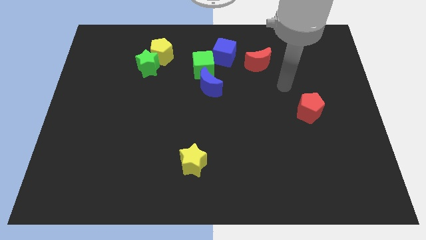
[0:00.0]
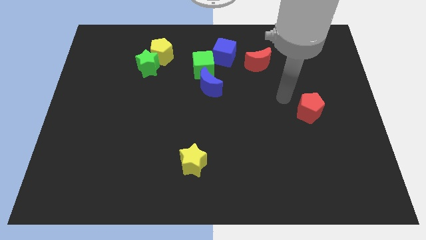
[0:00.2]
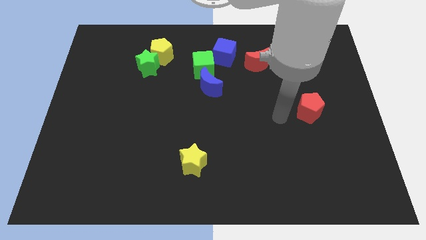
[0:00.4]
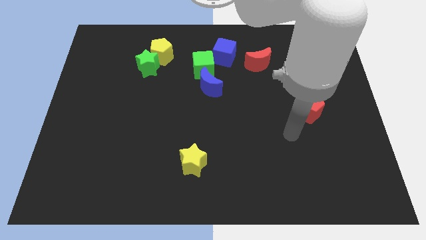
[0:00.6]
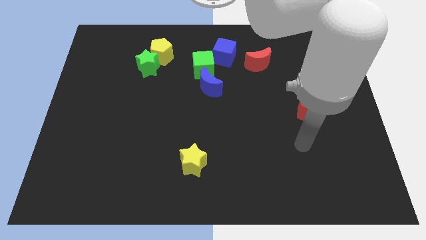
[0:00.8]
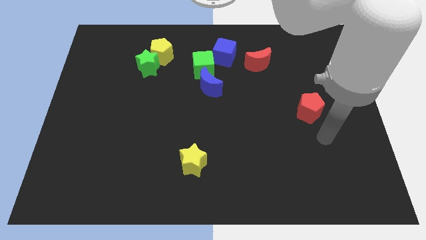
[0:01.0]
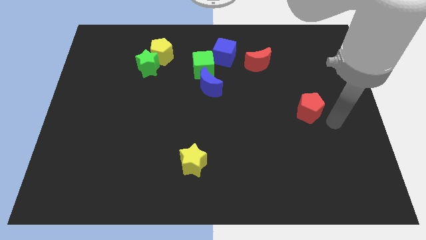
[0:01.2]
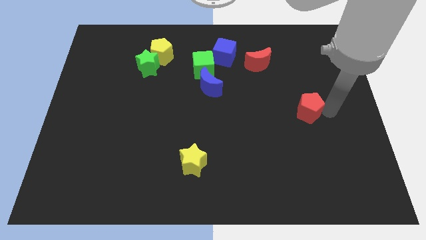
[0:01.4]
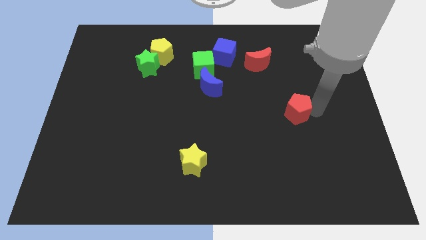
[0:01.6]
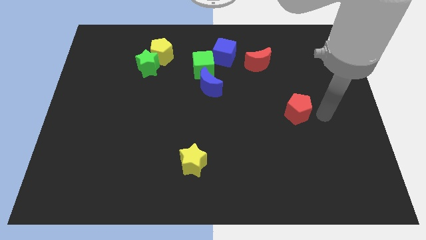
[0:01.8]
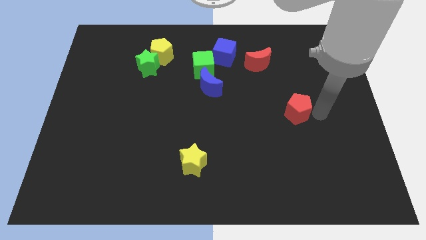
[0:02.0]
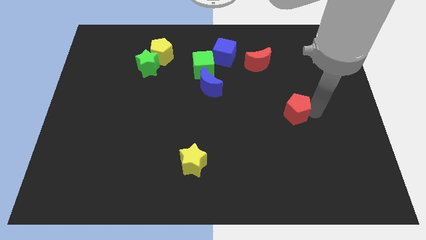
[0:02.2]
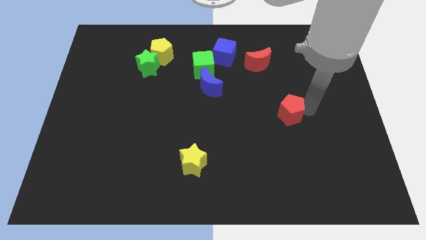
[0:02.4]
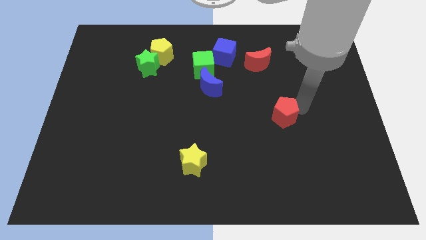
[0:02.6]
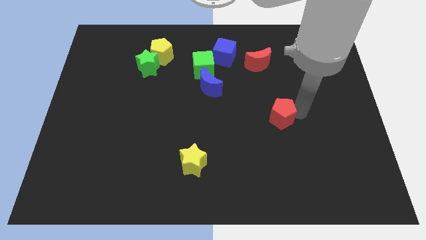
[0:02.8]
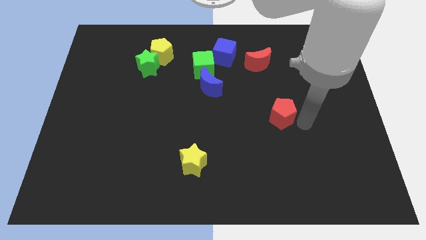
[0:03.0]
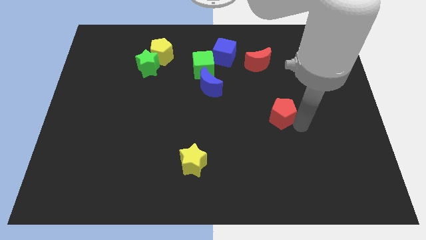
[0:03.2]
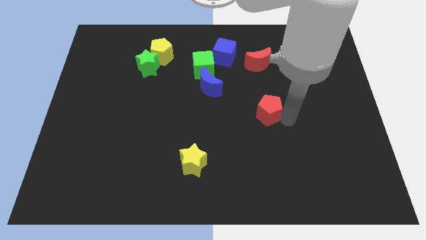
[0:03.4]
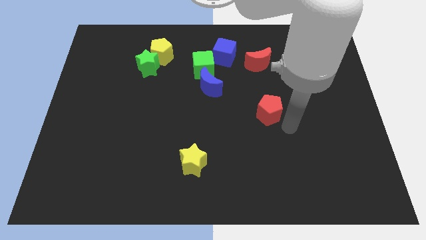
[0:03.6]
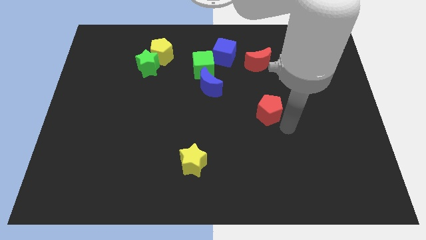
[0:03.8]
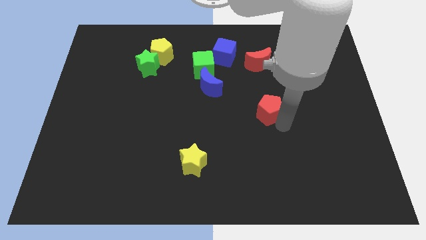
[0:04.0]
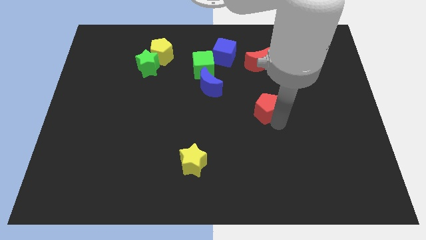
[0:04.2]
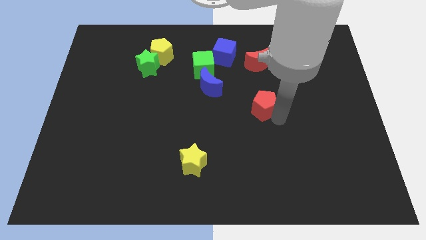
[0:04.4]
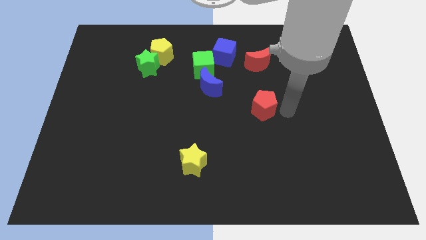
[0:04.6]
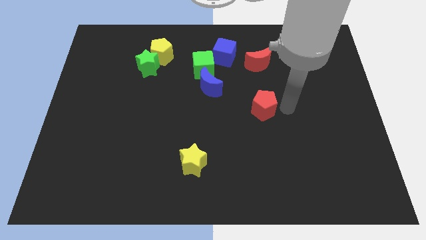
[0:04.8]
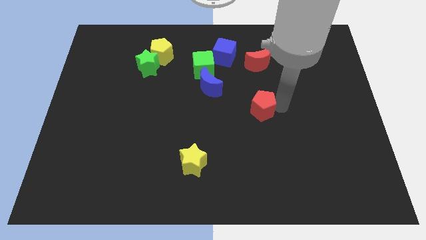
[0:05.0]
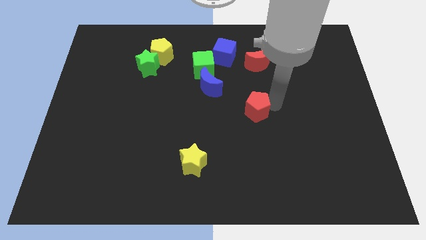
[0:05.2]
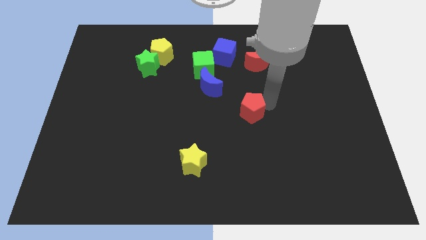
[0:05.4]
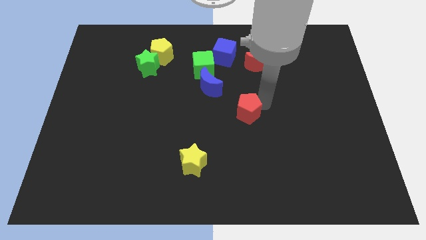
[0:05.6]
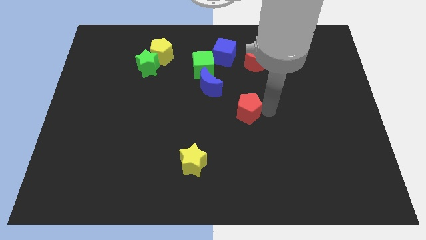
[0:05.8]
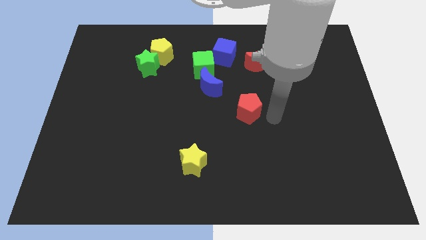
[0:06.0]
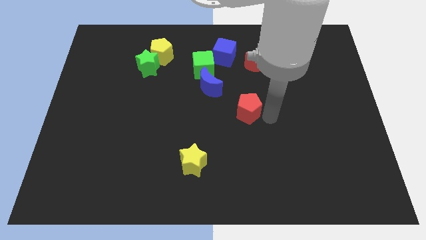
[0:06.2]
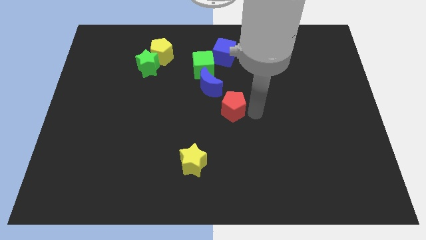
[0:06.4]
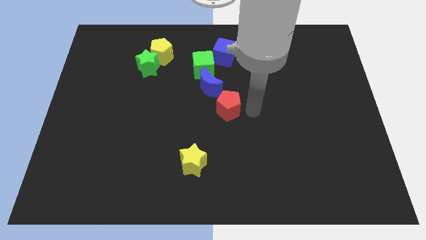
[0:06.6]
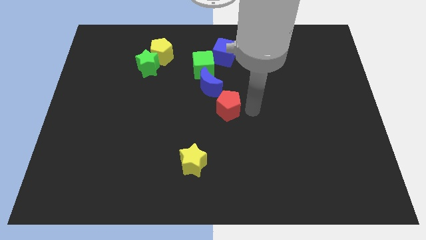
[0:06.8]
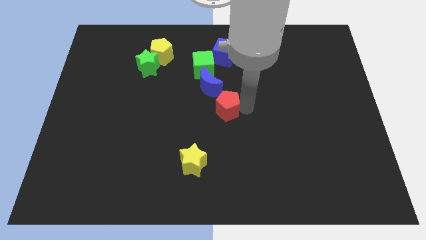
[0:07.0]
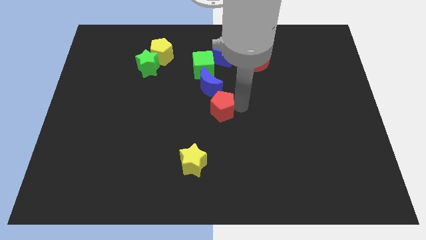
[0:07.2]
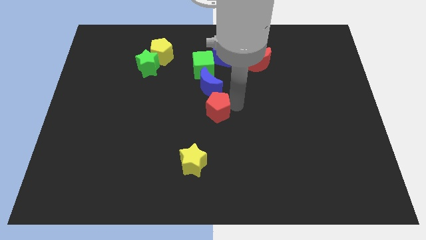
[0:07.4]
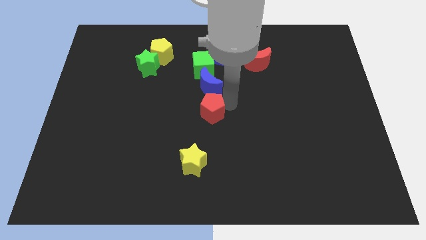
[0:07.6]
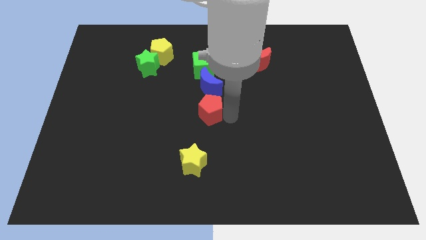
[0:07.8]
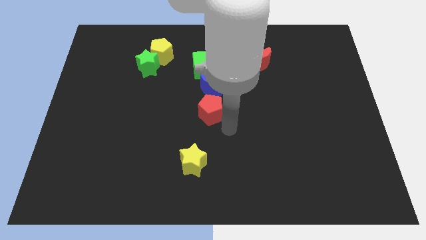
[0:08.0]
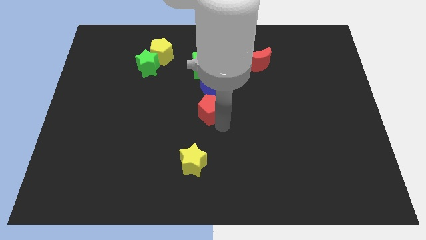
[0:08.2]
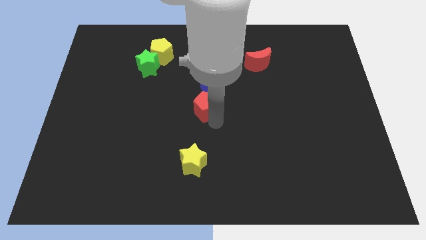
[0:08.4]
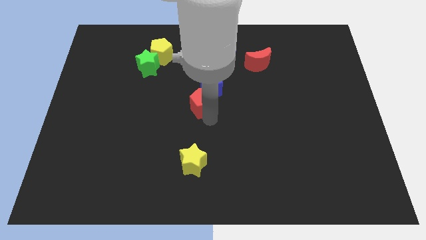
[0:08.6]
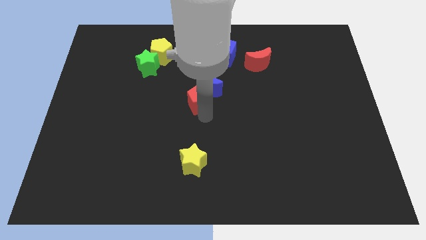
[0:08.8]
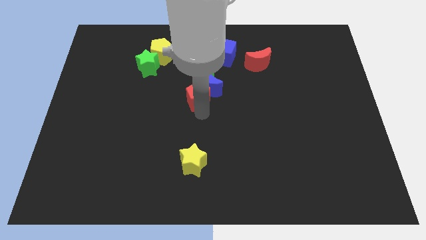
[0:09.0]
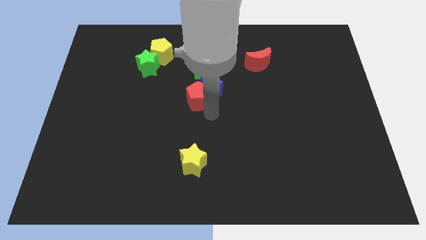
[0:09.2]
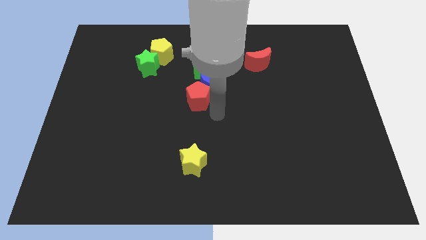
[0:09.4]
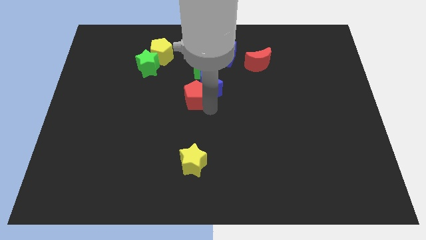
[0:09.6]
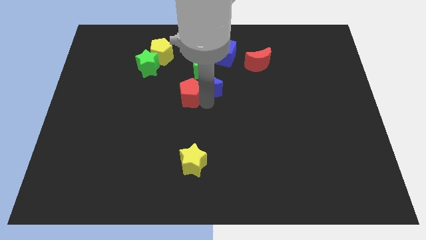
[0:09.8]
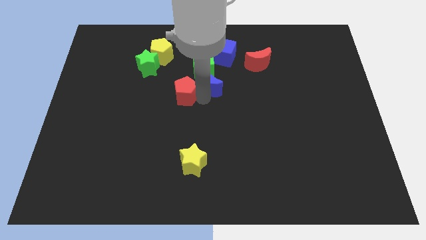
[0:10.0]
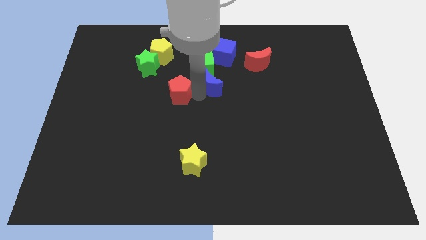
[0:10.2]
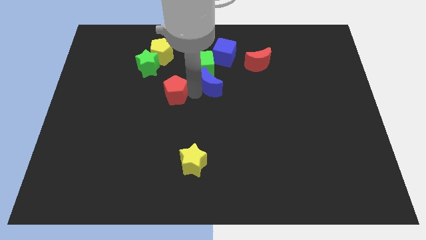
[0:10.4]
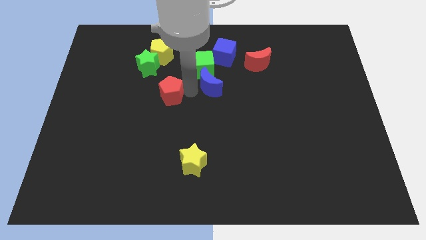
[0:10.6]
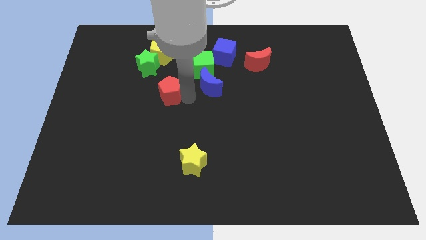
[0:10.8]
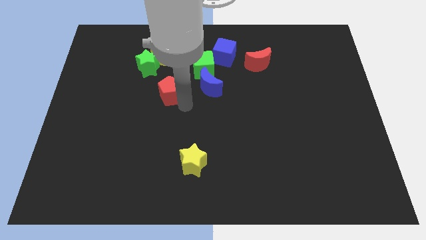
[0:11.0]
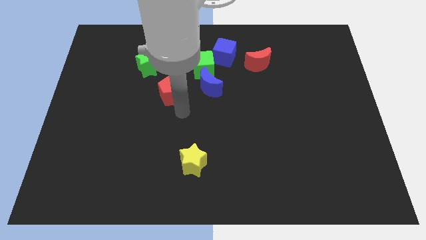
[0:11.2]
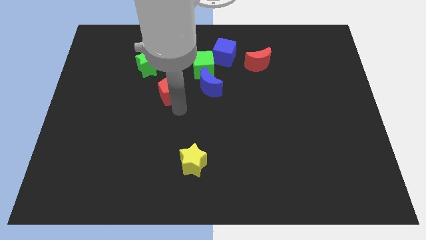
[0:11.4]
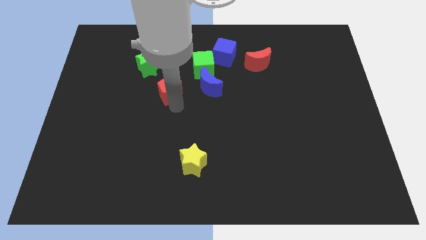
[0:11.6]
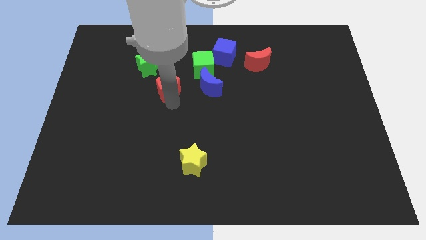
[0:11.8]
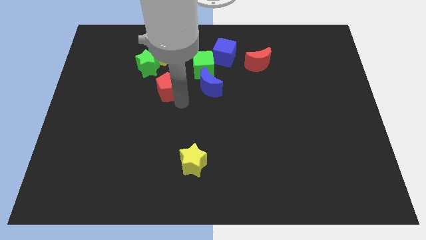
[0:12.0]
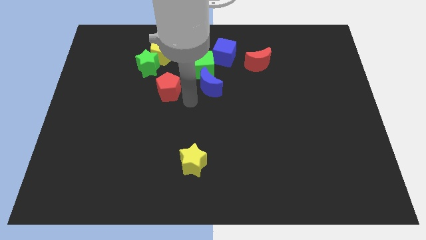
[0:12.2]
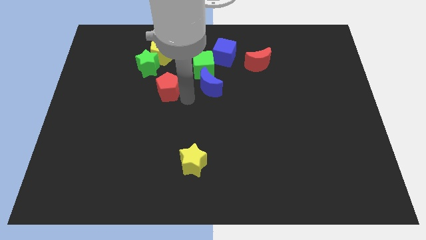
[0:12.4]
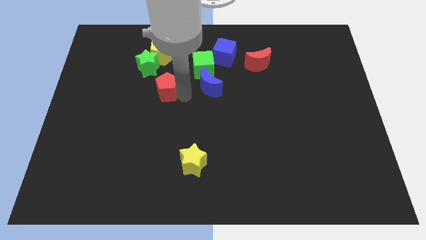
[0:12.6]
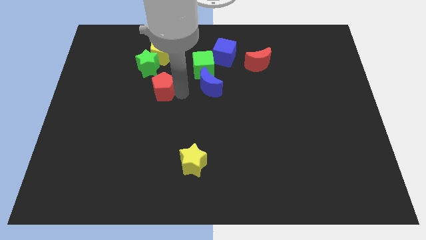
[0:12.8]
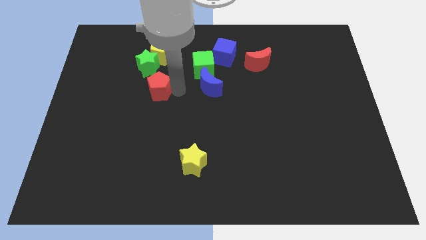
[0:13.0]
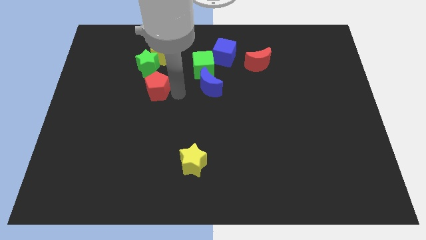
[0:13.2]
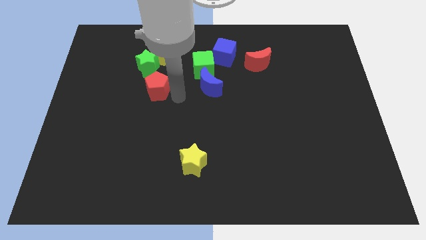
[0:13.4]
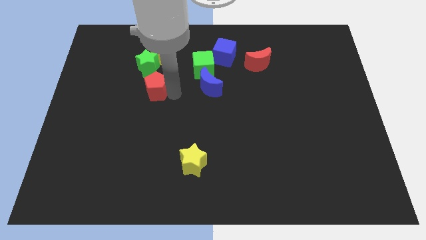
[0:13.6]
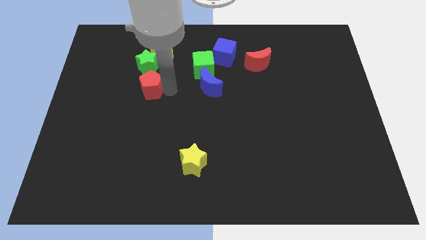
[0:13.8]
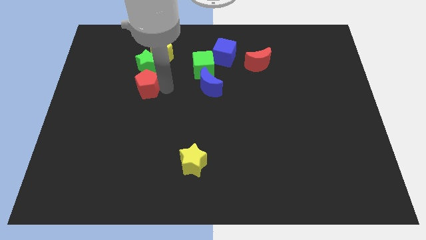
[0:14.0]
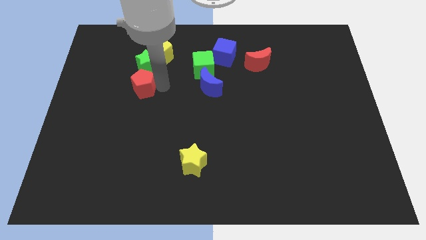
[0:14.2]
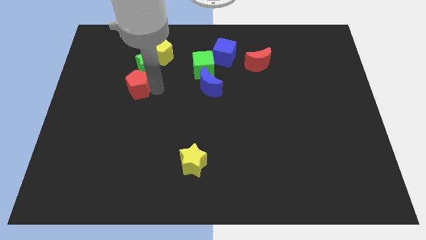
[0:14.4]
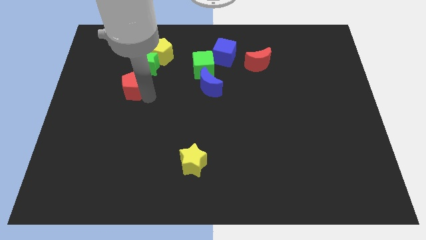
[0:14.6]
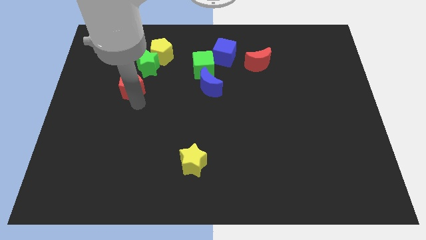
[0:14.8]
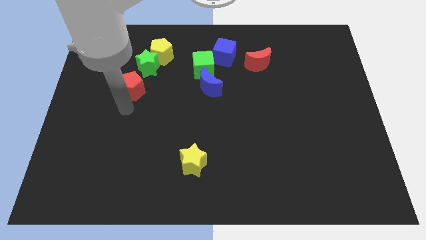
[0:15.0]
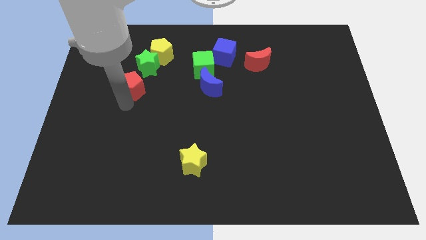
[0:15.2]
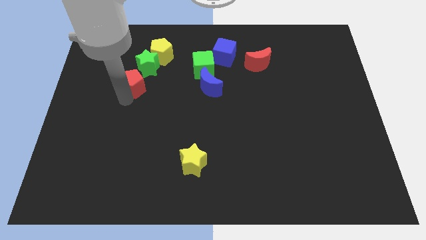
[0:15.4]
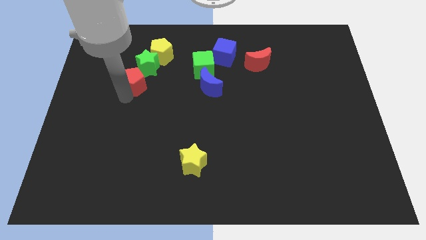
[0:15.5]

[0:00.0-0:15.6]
put the red pentagon to the bottom left side of the yellow pentagon
